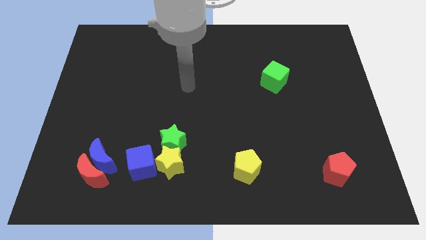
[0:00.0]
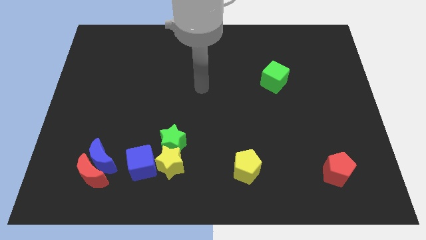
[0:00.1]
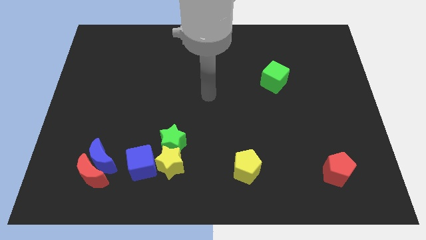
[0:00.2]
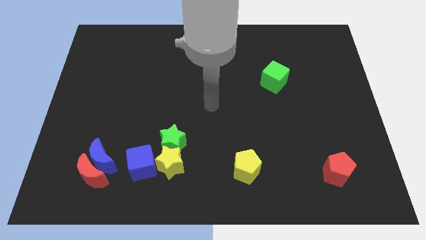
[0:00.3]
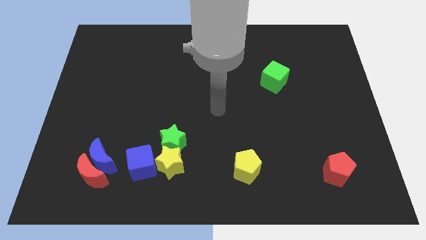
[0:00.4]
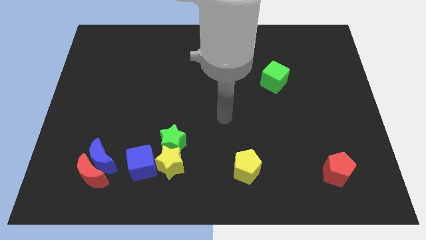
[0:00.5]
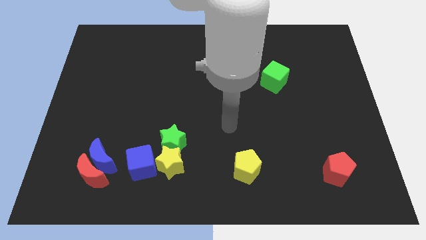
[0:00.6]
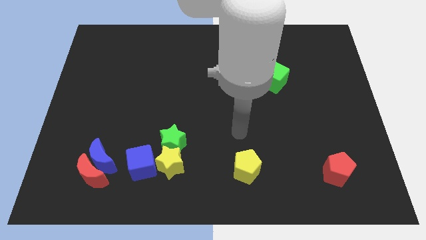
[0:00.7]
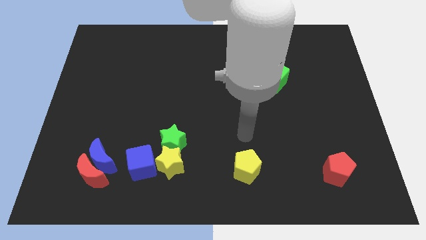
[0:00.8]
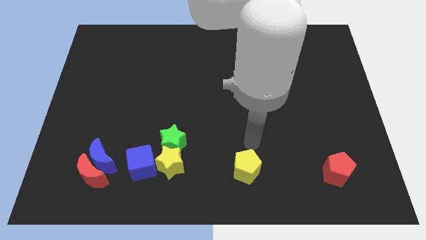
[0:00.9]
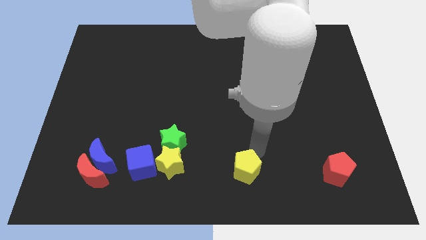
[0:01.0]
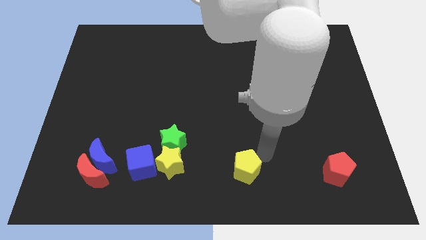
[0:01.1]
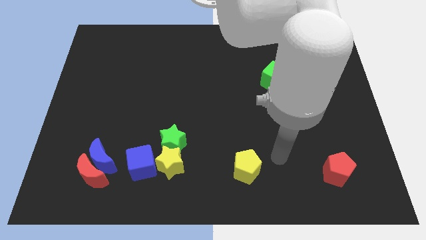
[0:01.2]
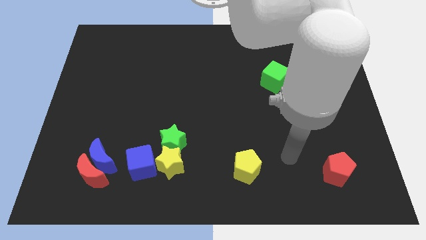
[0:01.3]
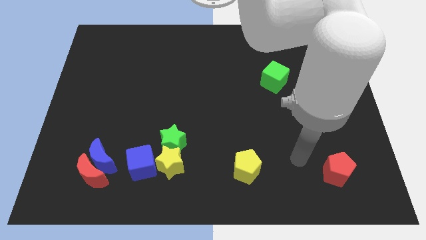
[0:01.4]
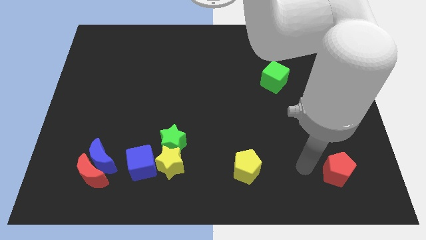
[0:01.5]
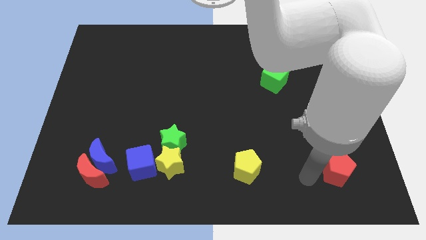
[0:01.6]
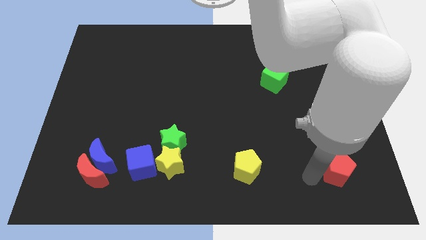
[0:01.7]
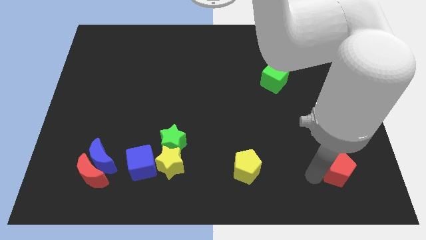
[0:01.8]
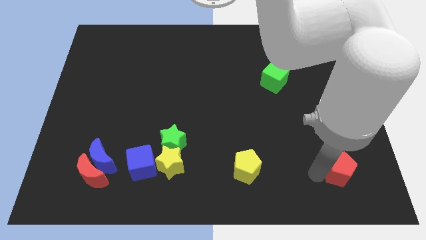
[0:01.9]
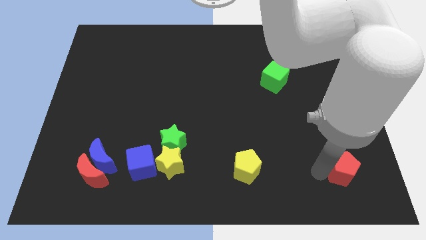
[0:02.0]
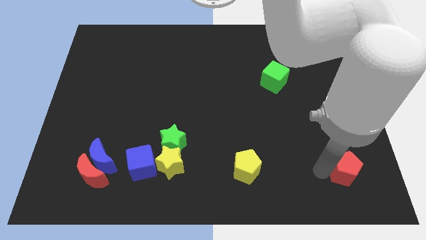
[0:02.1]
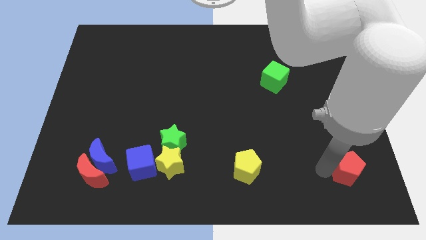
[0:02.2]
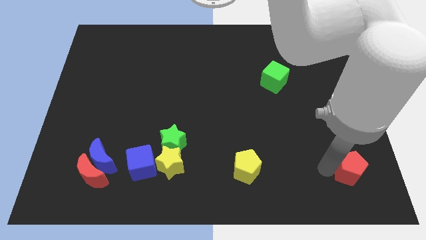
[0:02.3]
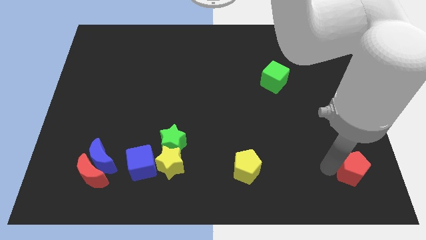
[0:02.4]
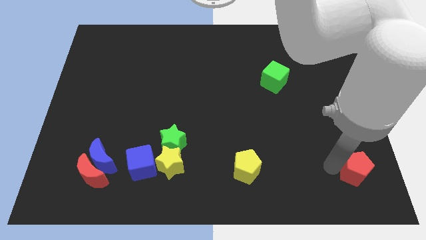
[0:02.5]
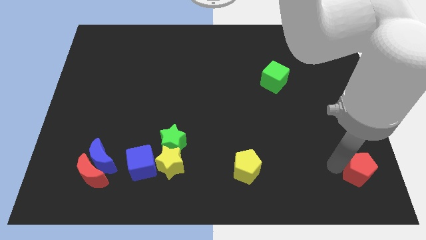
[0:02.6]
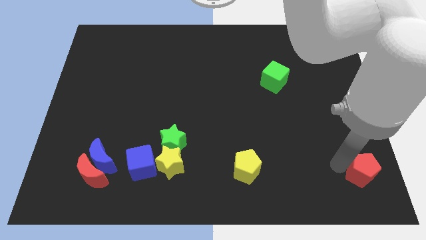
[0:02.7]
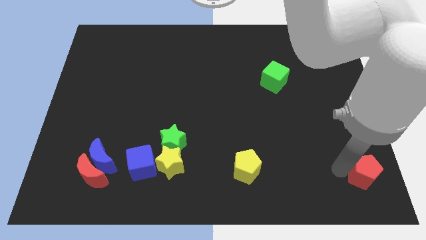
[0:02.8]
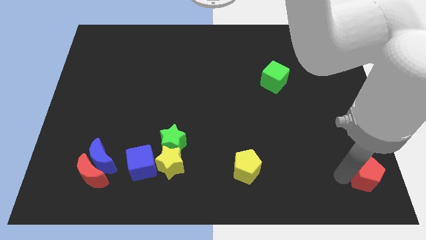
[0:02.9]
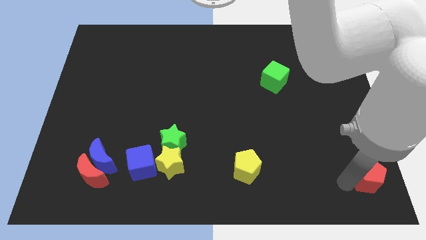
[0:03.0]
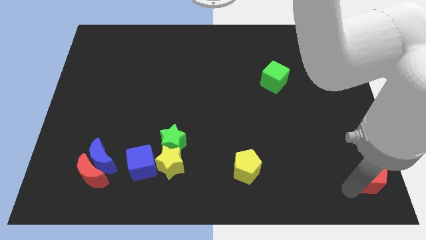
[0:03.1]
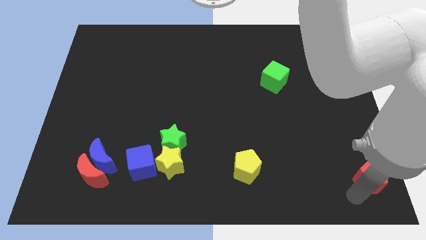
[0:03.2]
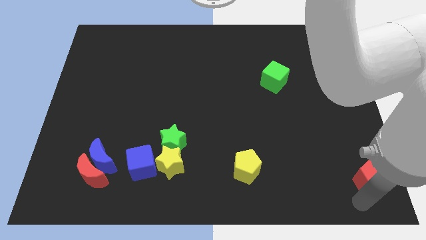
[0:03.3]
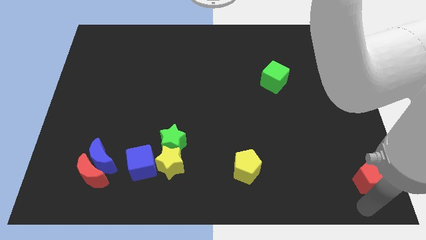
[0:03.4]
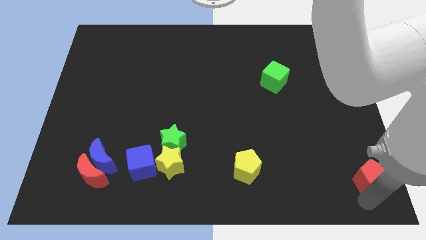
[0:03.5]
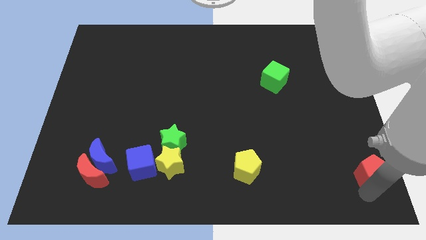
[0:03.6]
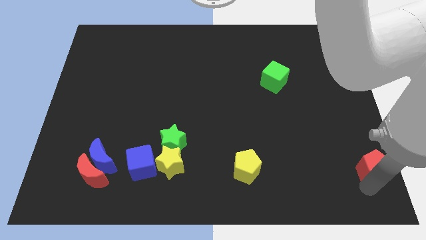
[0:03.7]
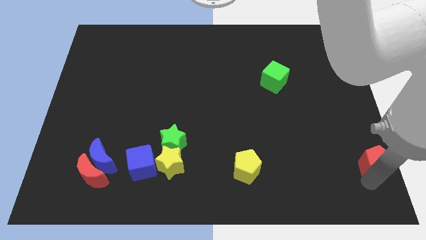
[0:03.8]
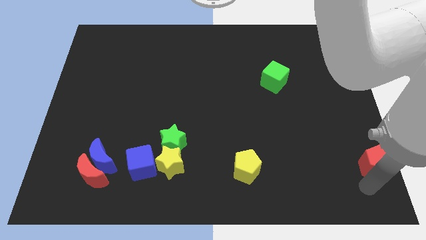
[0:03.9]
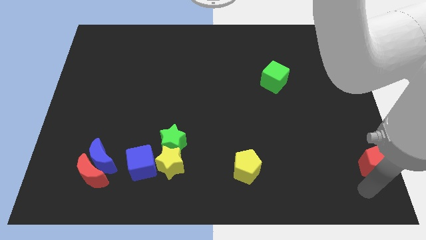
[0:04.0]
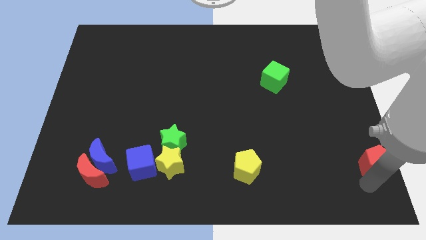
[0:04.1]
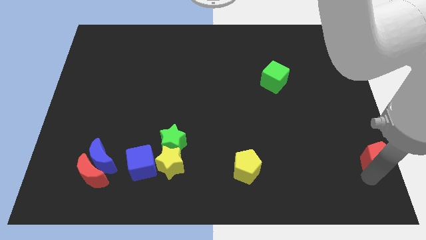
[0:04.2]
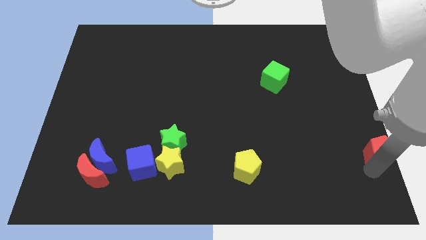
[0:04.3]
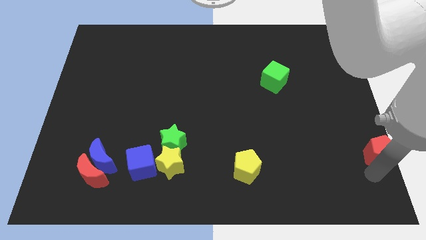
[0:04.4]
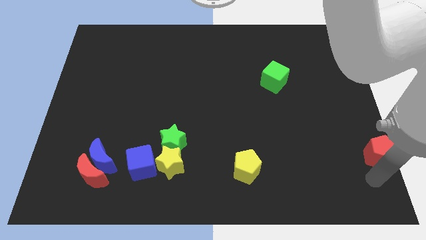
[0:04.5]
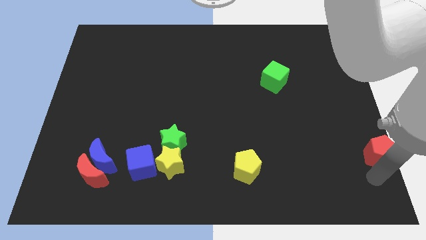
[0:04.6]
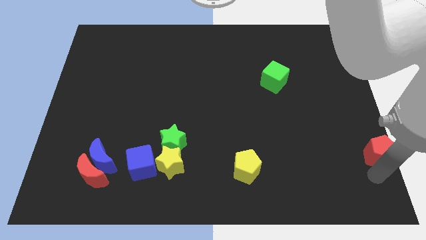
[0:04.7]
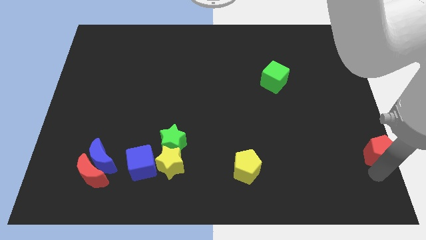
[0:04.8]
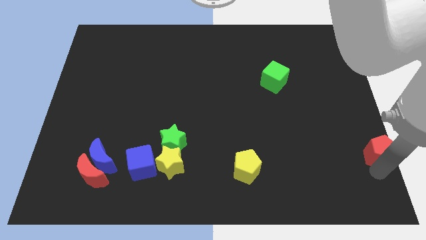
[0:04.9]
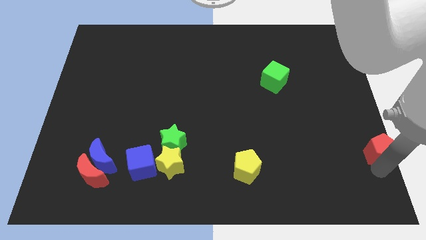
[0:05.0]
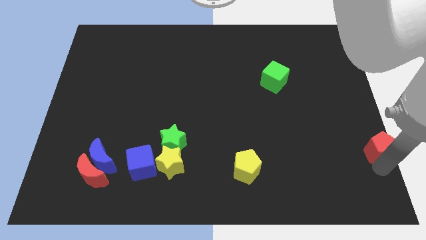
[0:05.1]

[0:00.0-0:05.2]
slide the red pentagon to the center right

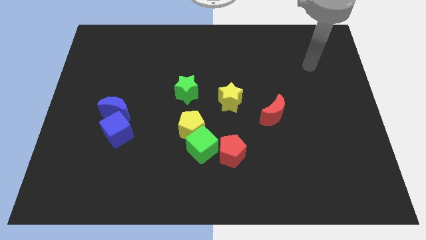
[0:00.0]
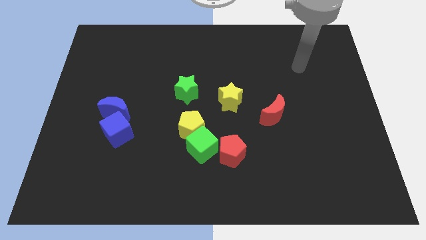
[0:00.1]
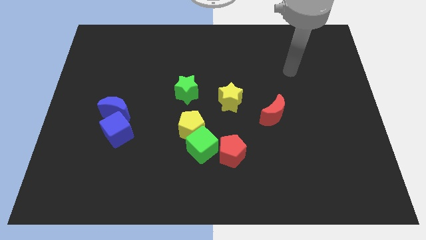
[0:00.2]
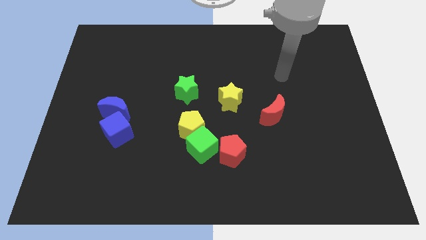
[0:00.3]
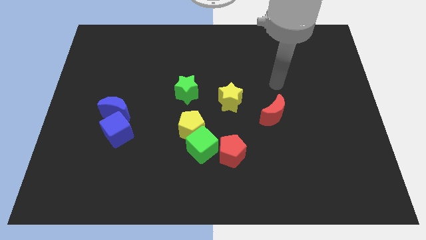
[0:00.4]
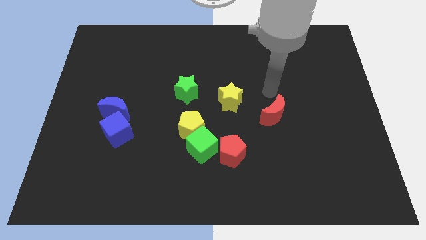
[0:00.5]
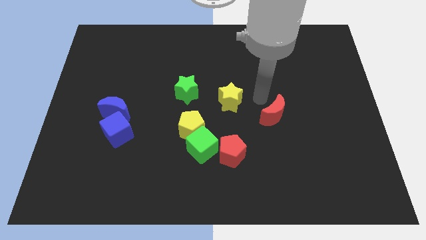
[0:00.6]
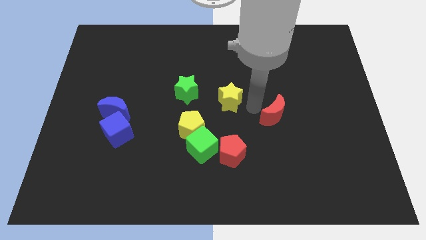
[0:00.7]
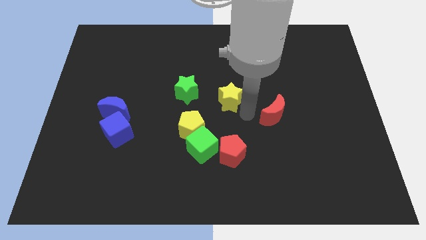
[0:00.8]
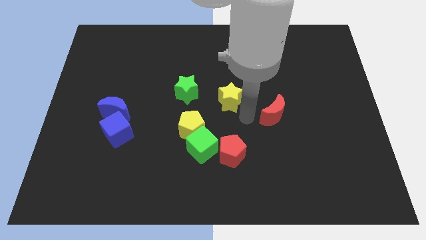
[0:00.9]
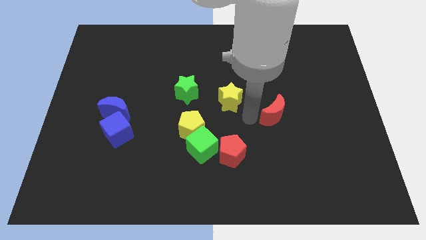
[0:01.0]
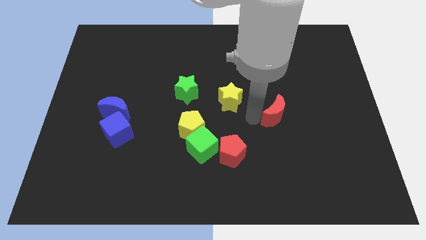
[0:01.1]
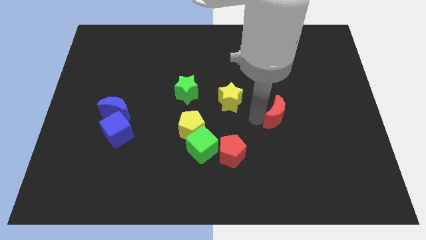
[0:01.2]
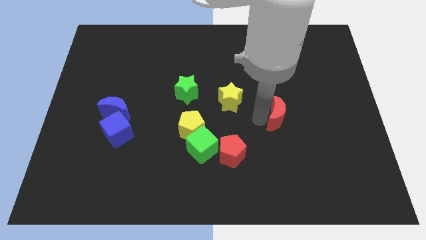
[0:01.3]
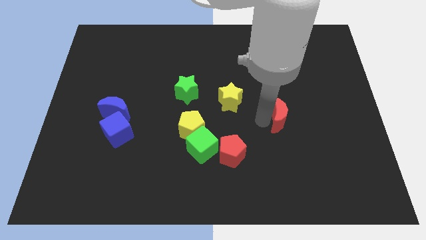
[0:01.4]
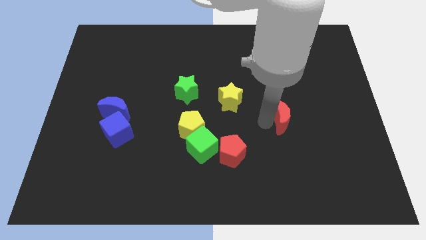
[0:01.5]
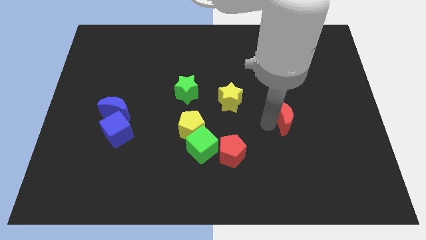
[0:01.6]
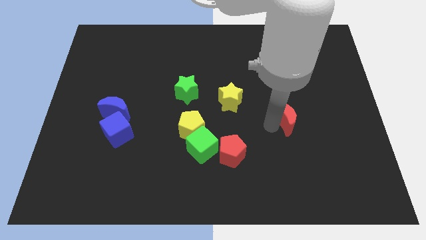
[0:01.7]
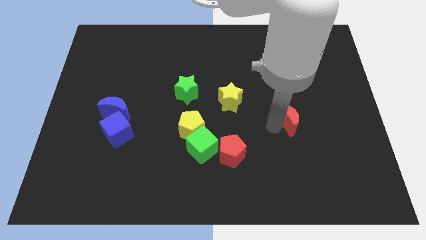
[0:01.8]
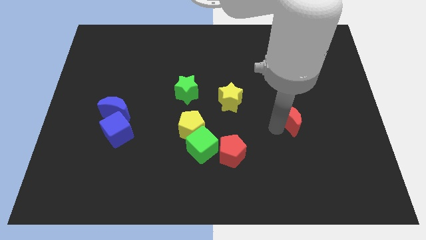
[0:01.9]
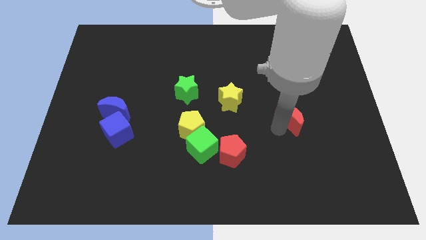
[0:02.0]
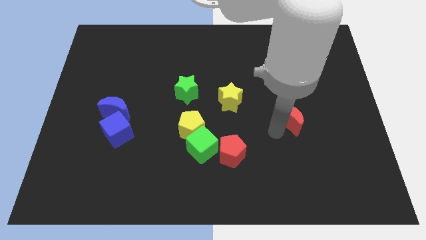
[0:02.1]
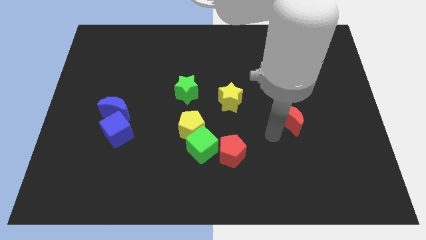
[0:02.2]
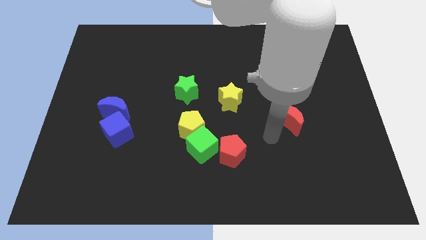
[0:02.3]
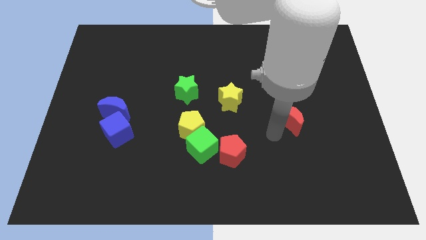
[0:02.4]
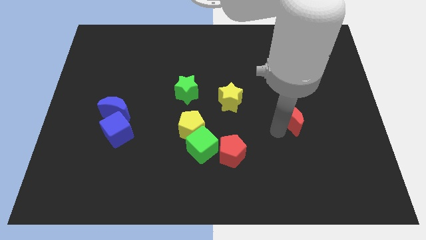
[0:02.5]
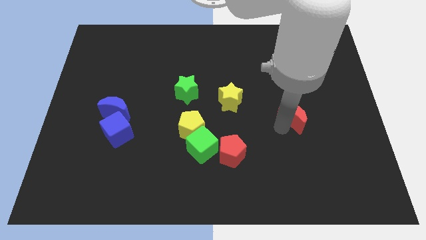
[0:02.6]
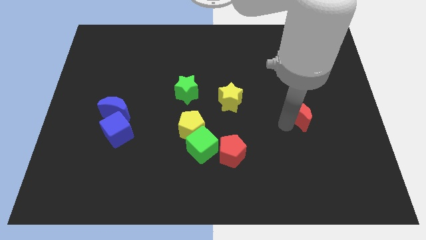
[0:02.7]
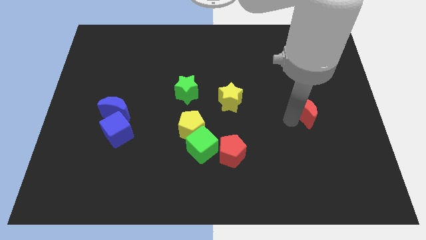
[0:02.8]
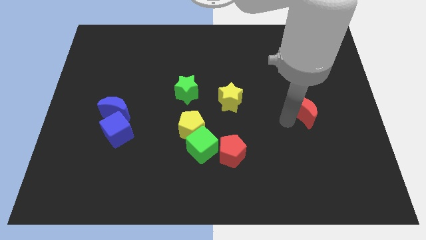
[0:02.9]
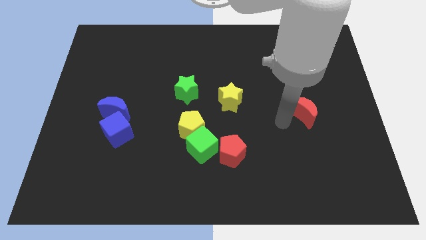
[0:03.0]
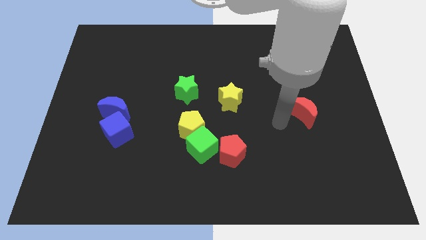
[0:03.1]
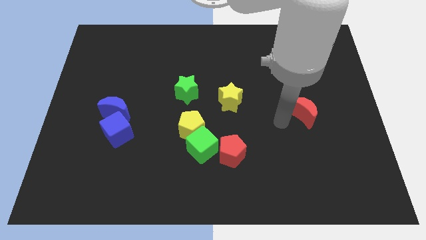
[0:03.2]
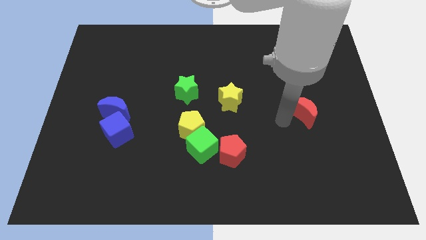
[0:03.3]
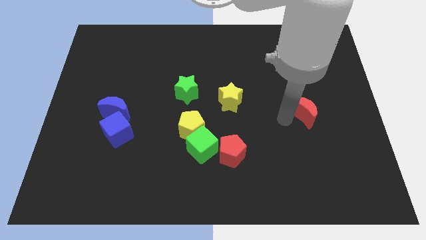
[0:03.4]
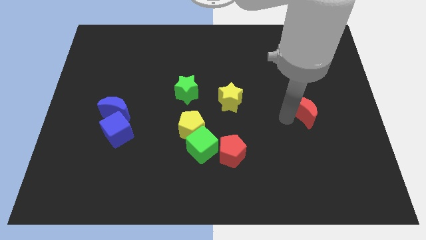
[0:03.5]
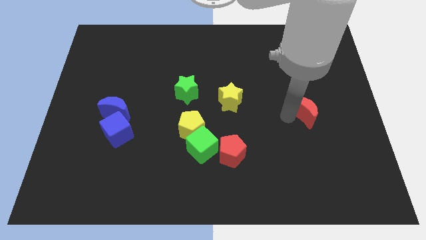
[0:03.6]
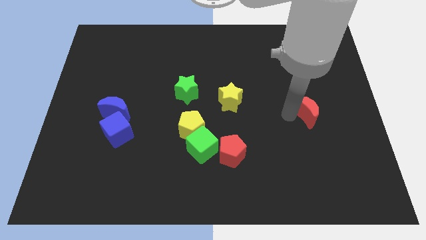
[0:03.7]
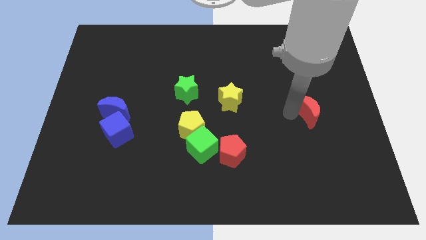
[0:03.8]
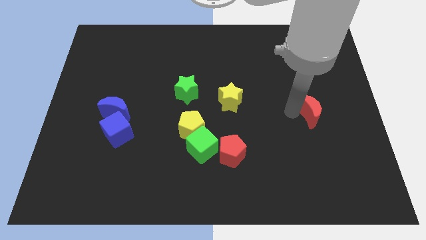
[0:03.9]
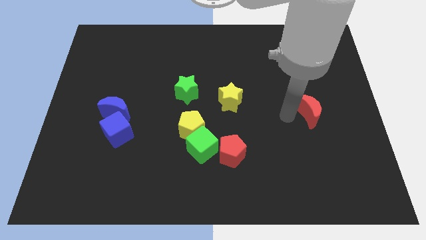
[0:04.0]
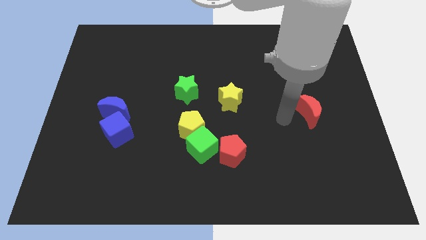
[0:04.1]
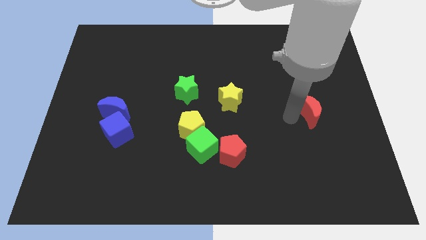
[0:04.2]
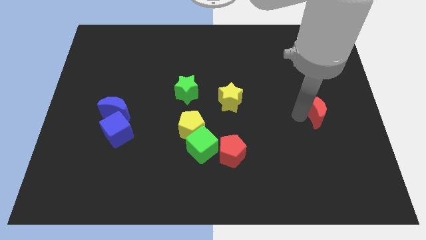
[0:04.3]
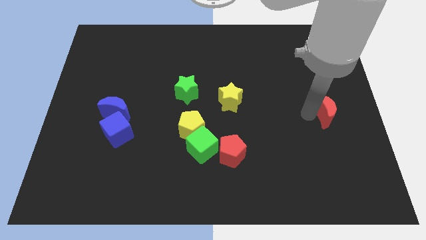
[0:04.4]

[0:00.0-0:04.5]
move the red moon to the center right
